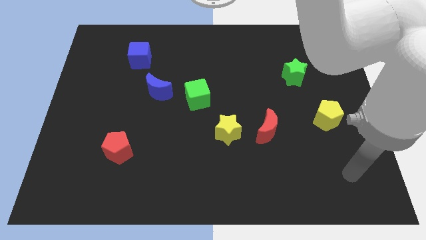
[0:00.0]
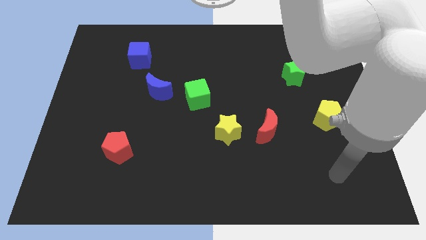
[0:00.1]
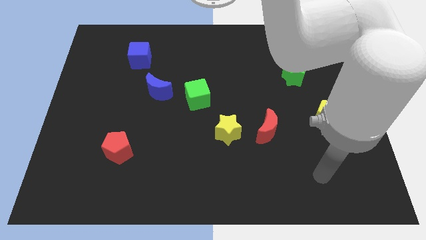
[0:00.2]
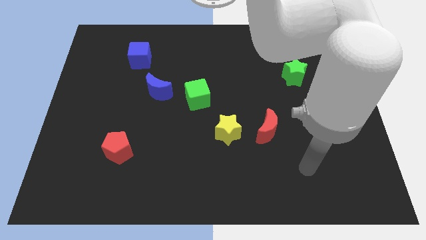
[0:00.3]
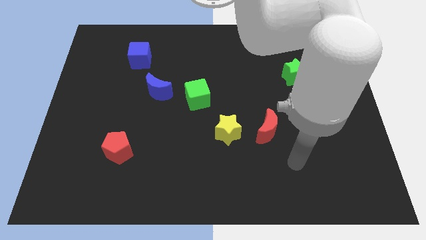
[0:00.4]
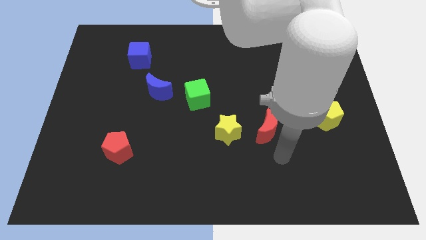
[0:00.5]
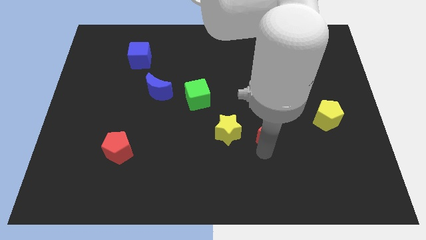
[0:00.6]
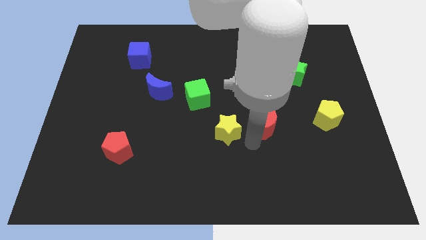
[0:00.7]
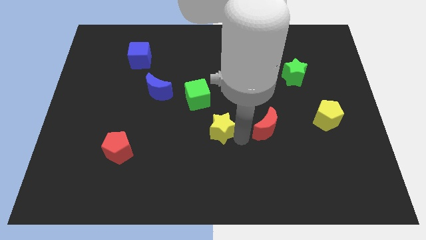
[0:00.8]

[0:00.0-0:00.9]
pull the red moon apart from the yellow star

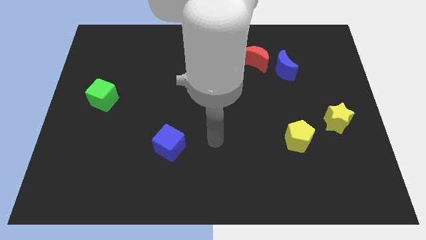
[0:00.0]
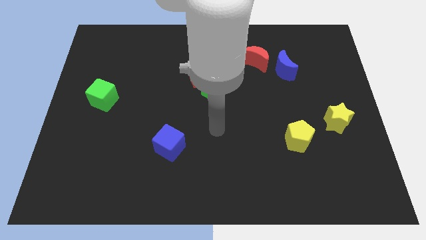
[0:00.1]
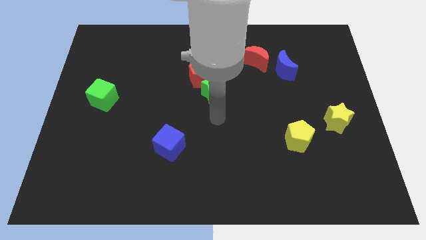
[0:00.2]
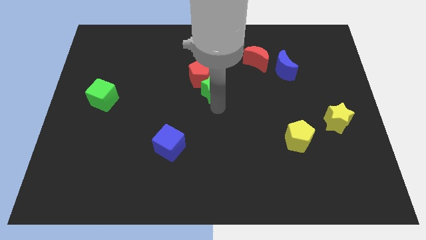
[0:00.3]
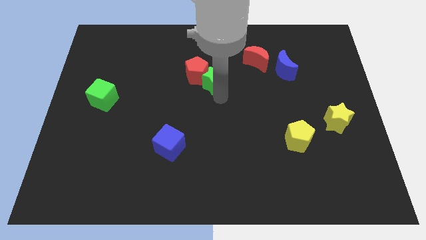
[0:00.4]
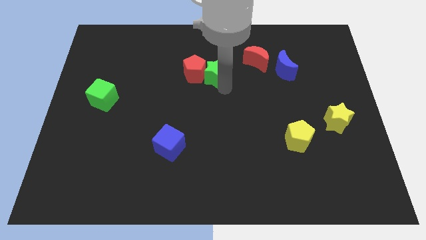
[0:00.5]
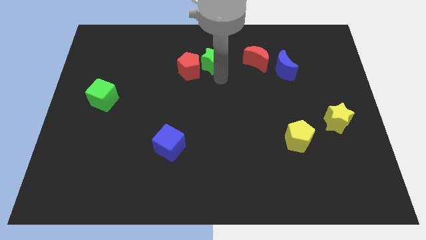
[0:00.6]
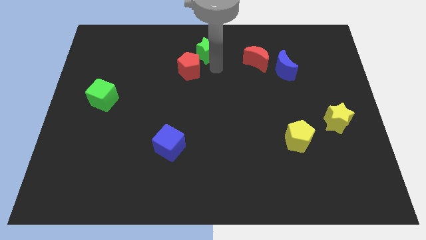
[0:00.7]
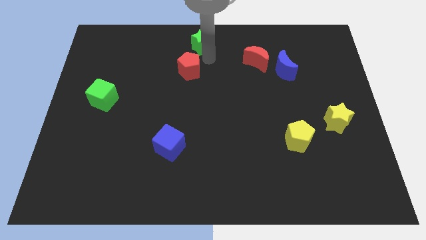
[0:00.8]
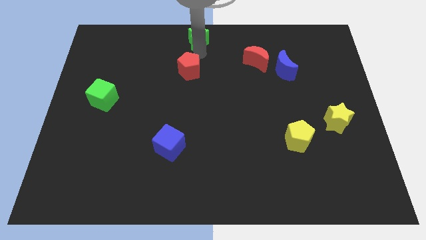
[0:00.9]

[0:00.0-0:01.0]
pull the red pentagon apart from the green star

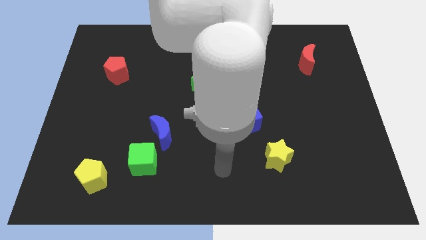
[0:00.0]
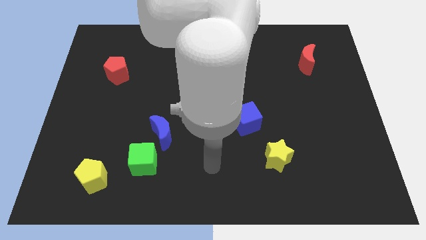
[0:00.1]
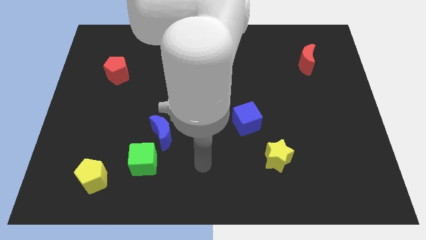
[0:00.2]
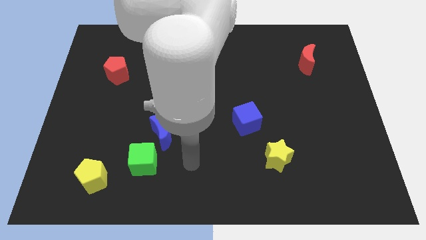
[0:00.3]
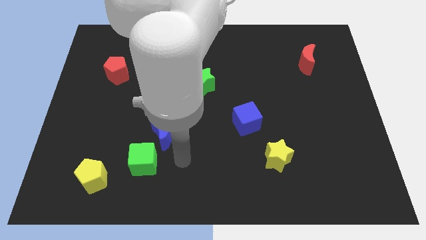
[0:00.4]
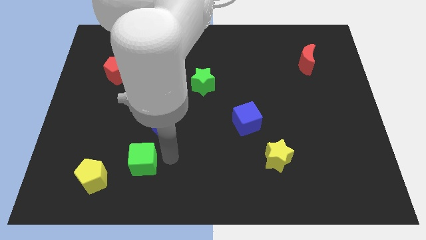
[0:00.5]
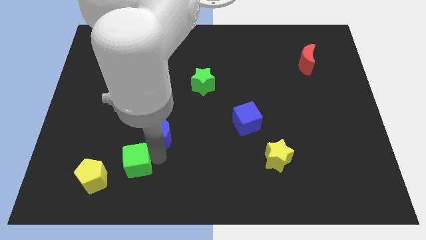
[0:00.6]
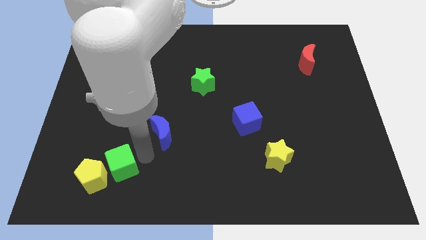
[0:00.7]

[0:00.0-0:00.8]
pull the blue moon apart from the green cube

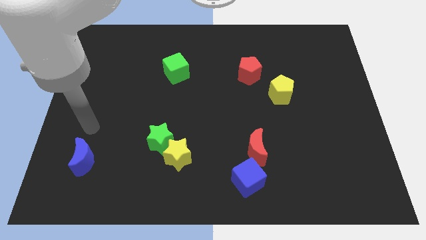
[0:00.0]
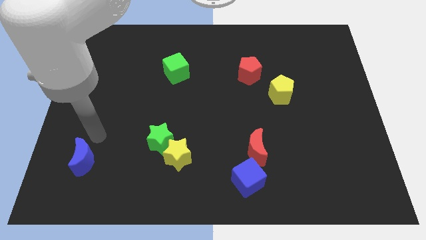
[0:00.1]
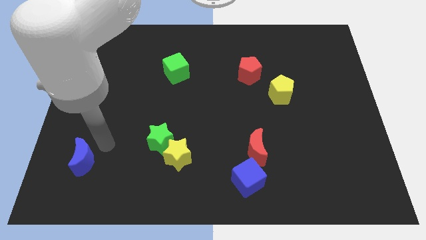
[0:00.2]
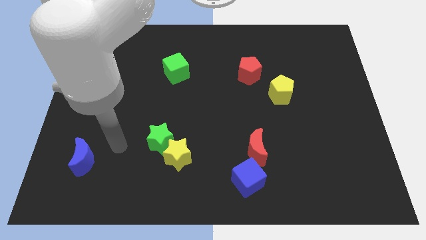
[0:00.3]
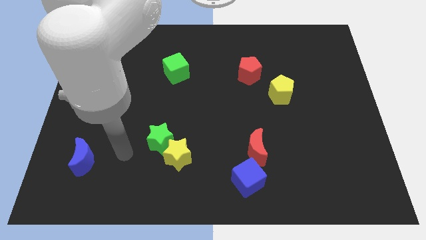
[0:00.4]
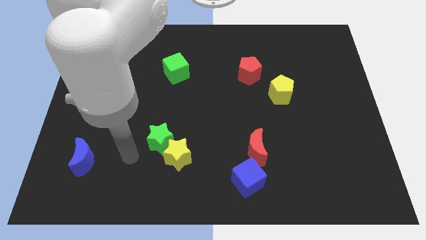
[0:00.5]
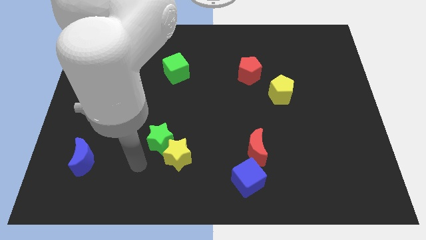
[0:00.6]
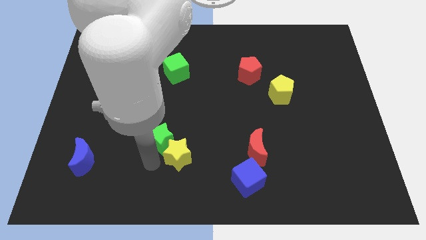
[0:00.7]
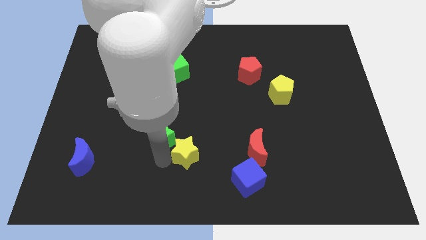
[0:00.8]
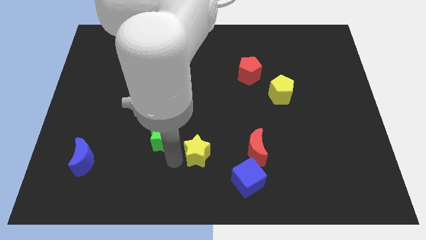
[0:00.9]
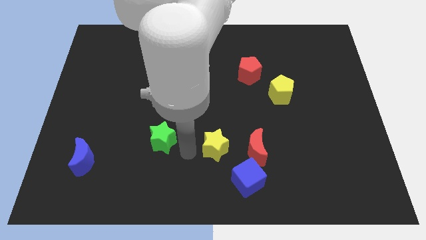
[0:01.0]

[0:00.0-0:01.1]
move the green star away from the yellow star

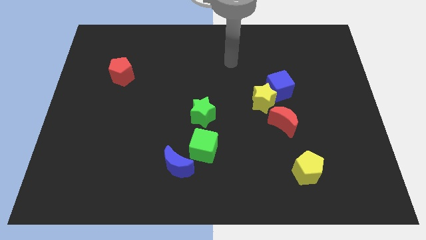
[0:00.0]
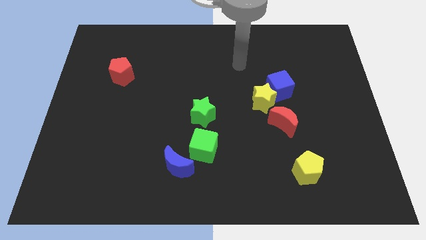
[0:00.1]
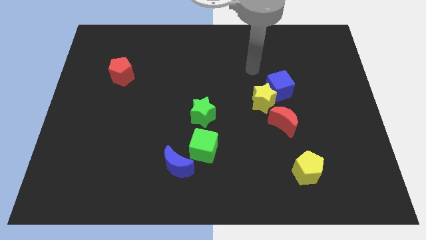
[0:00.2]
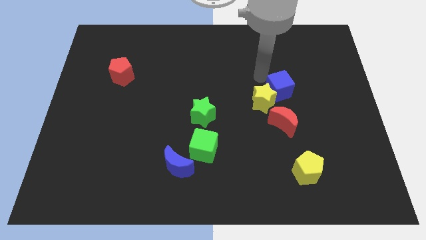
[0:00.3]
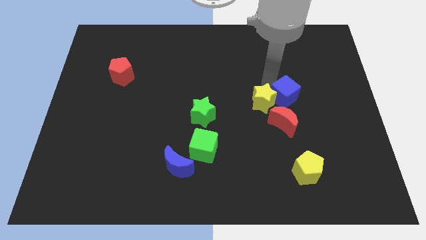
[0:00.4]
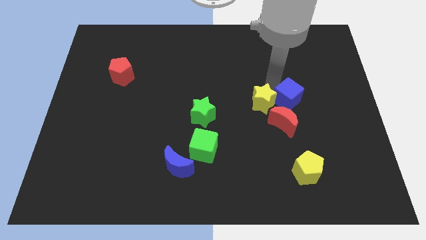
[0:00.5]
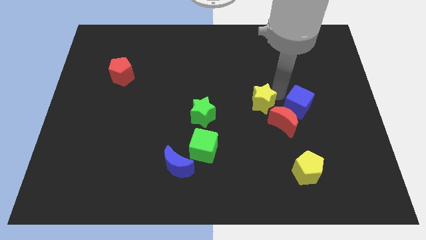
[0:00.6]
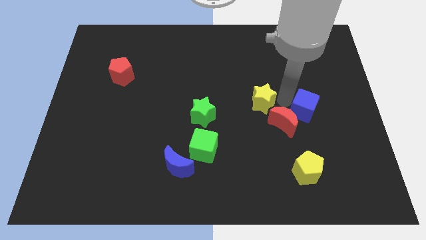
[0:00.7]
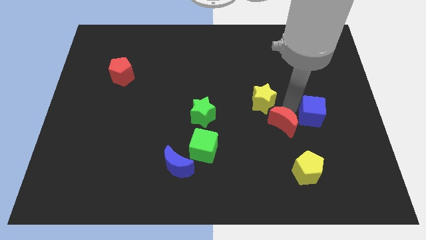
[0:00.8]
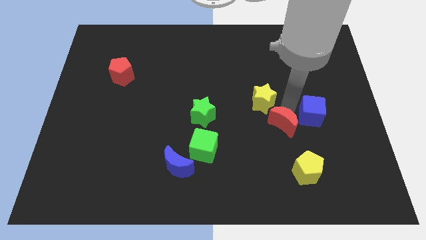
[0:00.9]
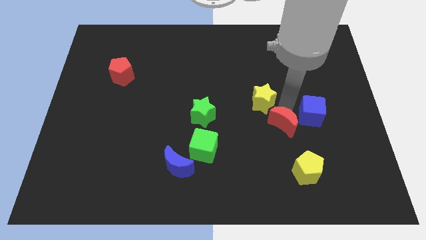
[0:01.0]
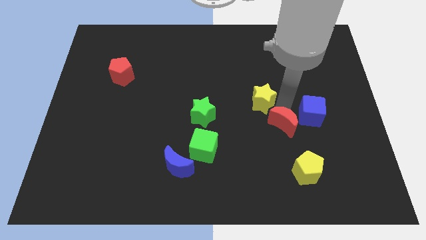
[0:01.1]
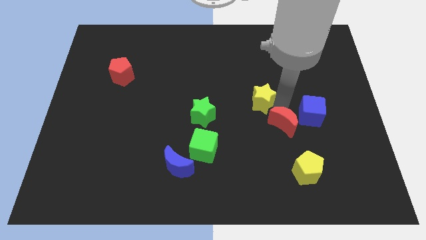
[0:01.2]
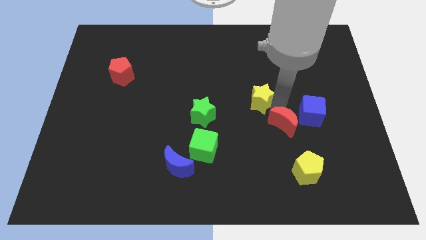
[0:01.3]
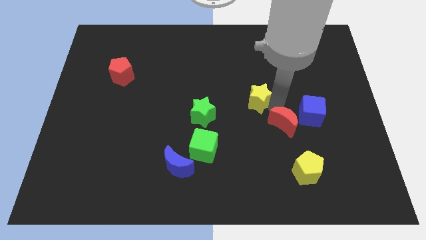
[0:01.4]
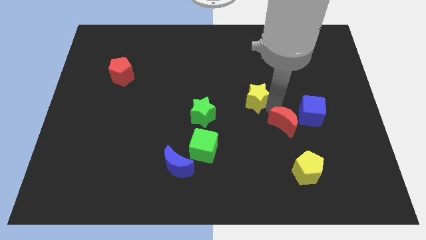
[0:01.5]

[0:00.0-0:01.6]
move the yellow star away from the blue cube and red moon

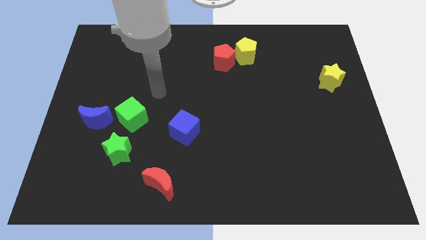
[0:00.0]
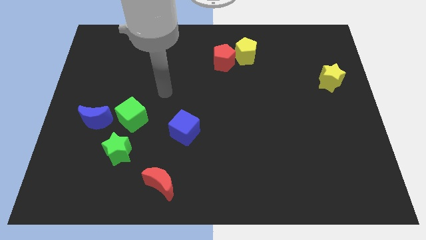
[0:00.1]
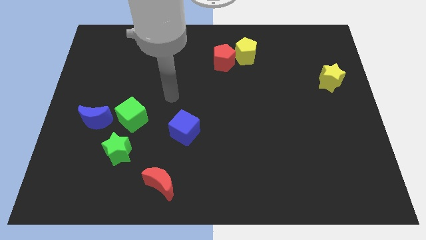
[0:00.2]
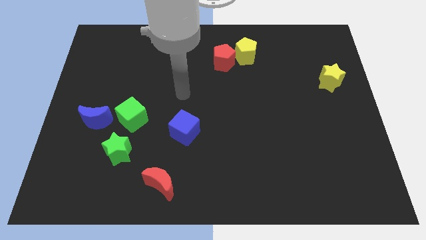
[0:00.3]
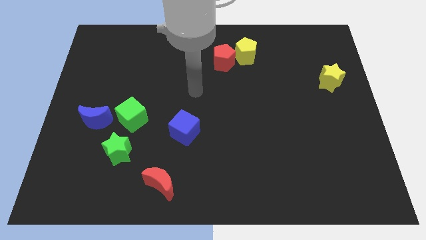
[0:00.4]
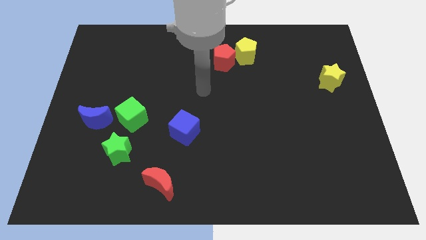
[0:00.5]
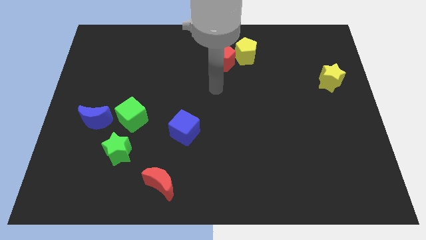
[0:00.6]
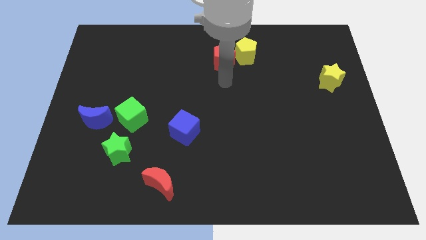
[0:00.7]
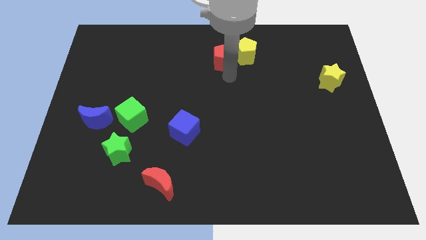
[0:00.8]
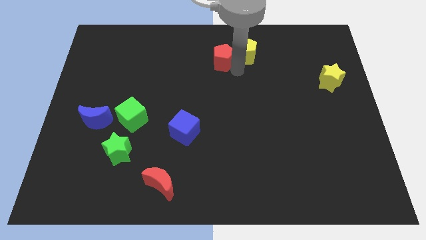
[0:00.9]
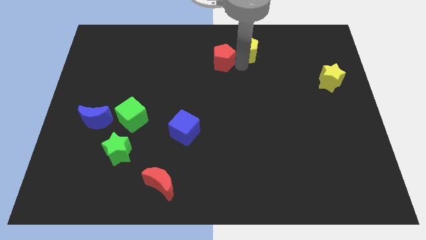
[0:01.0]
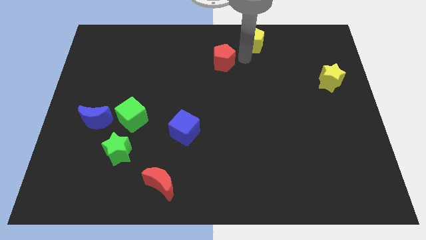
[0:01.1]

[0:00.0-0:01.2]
separate the red pentagon from the yellow pentagon

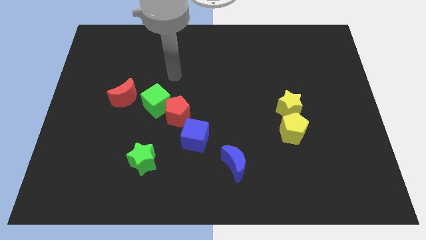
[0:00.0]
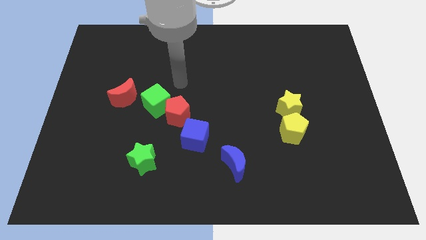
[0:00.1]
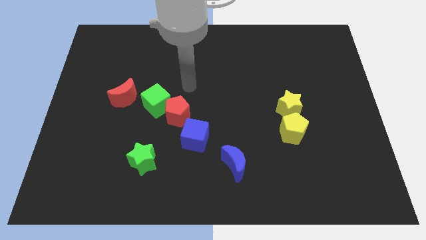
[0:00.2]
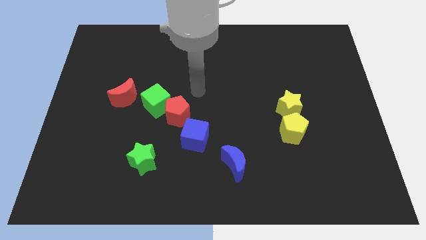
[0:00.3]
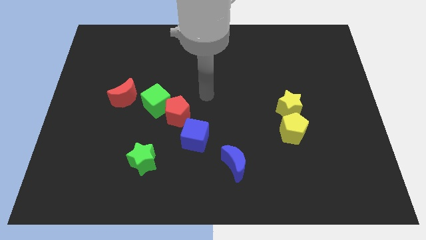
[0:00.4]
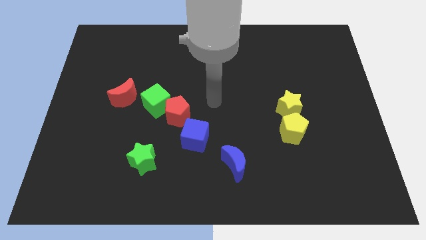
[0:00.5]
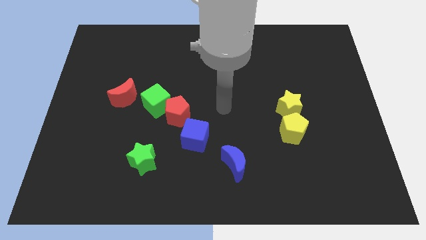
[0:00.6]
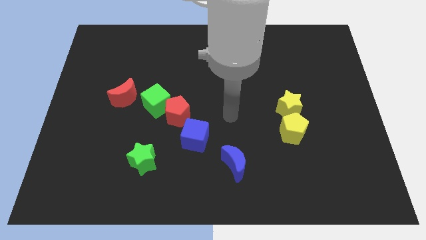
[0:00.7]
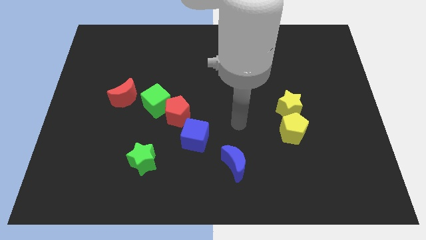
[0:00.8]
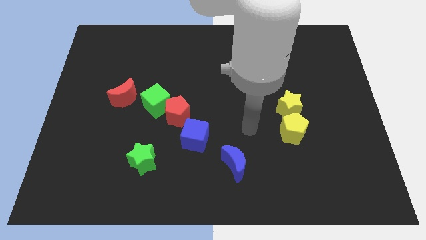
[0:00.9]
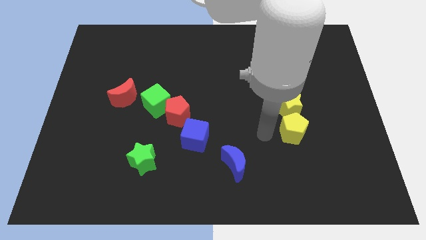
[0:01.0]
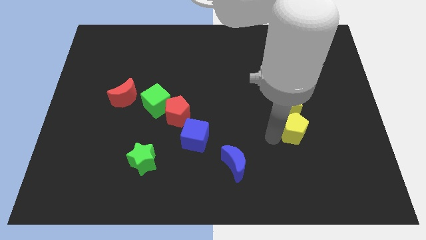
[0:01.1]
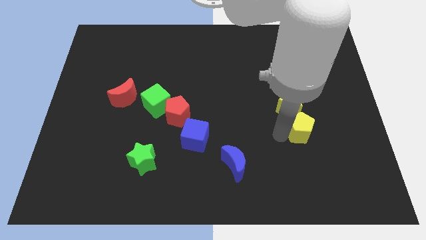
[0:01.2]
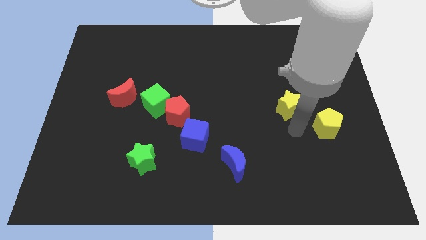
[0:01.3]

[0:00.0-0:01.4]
move the yellow star away from the yellow pentagon

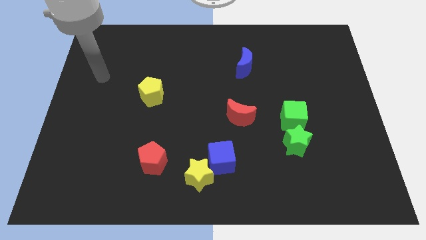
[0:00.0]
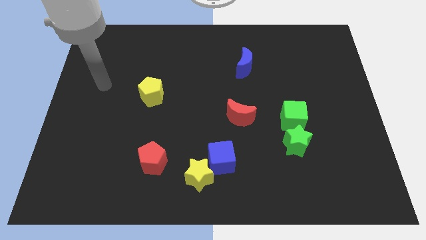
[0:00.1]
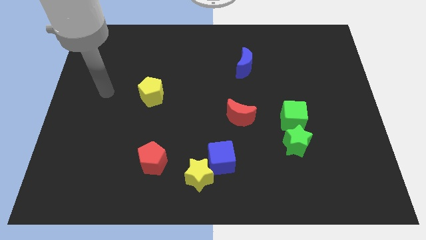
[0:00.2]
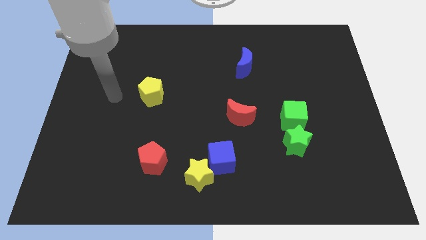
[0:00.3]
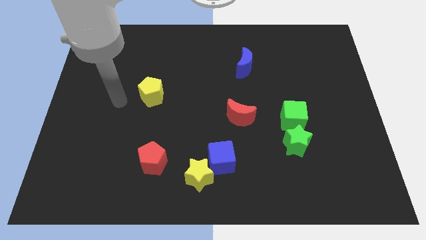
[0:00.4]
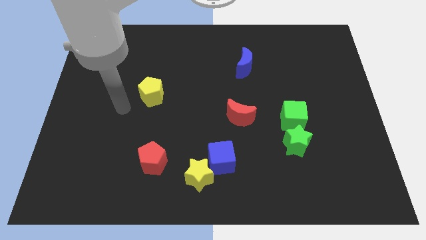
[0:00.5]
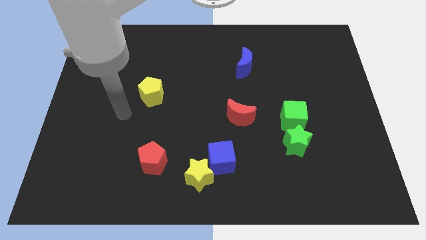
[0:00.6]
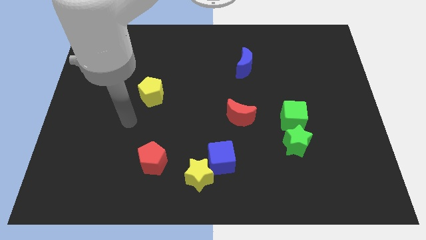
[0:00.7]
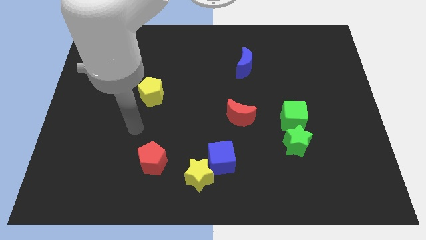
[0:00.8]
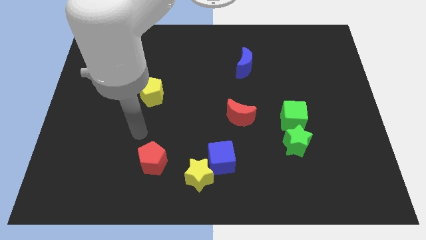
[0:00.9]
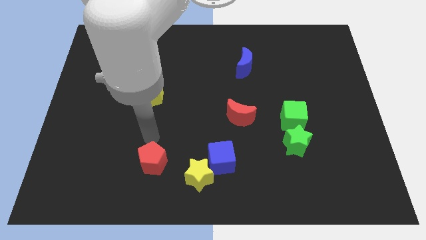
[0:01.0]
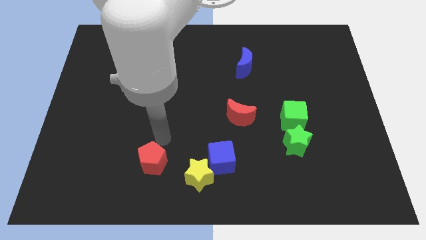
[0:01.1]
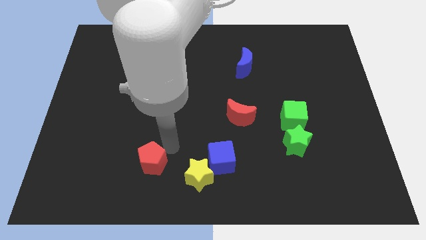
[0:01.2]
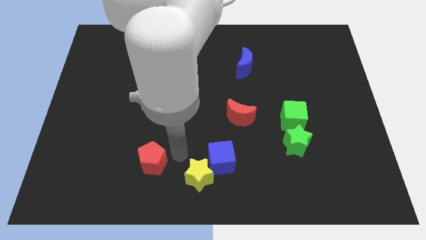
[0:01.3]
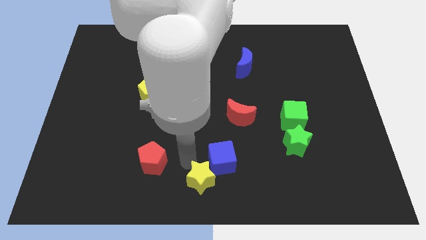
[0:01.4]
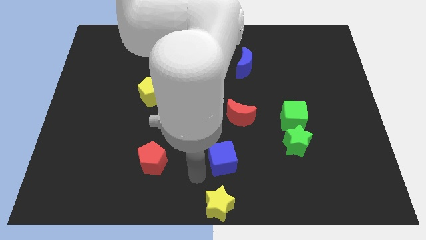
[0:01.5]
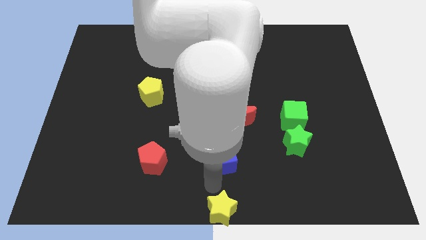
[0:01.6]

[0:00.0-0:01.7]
pull the blue cube apart from the yellow star
